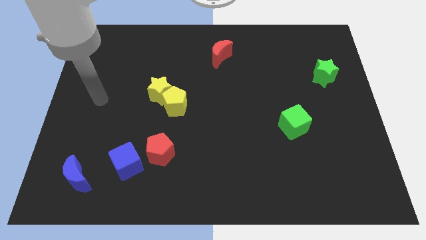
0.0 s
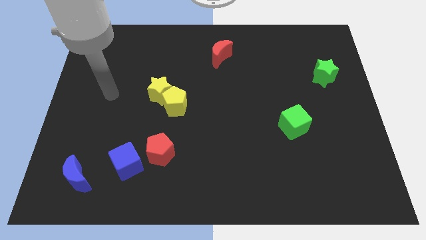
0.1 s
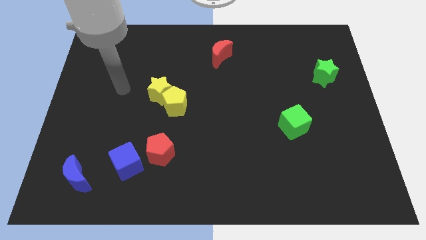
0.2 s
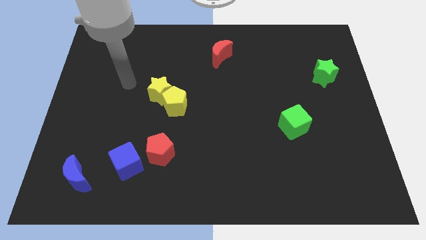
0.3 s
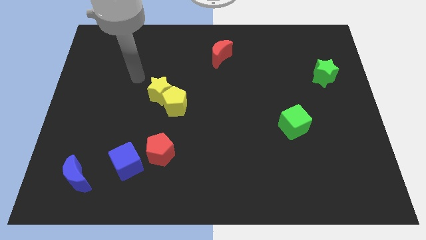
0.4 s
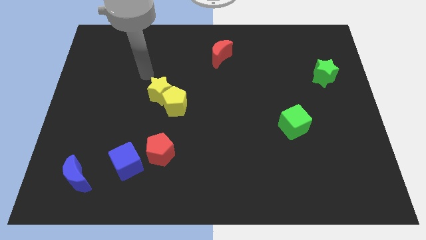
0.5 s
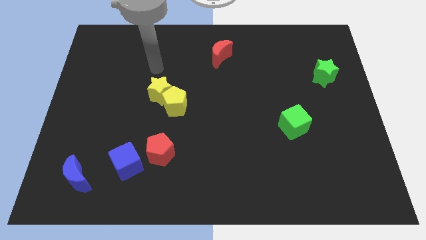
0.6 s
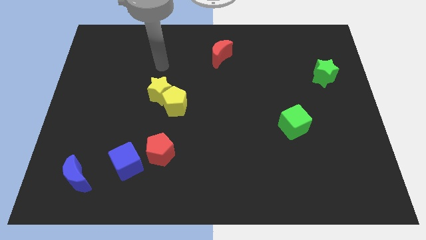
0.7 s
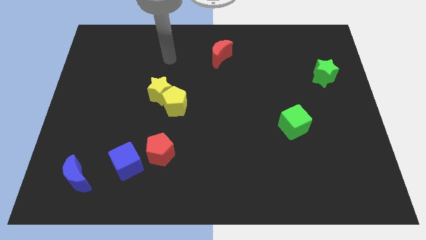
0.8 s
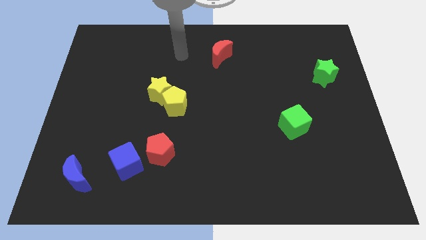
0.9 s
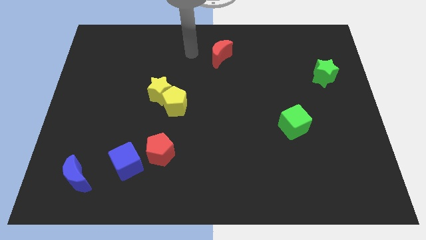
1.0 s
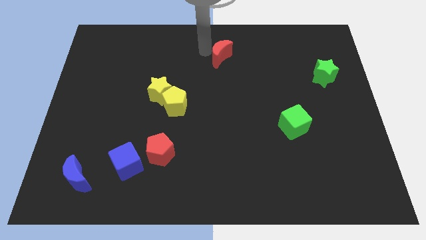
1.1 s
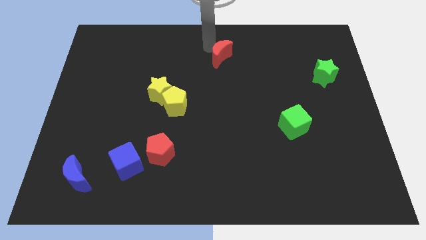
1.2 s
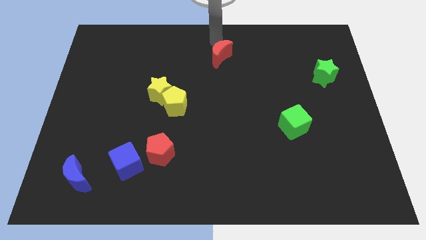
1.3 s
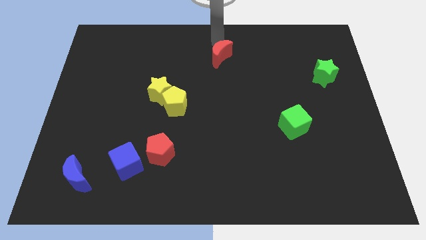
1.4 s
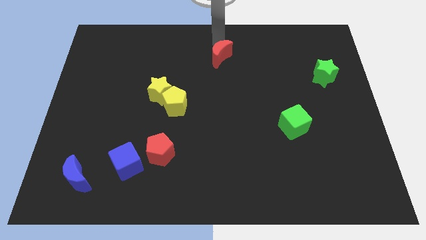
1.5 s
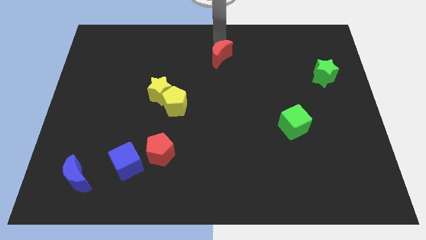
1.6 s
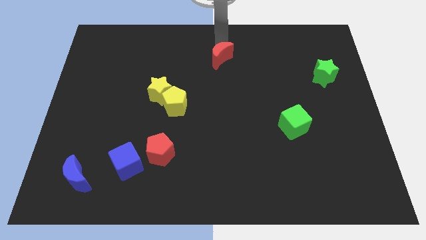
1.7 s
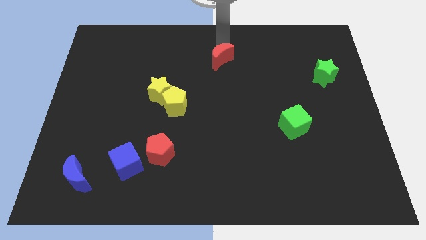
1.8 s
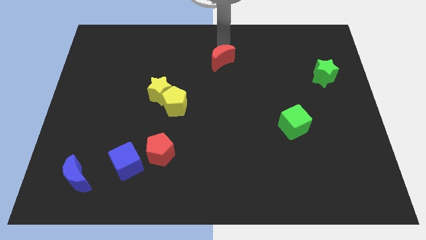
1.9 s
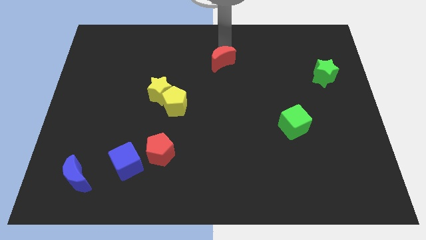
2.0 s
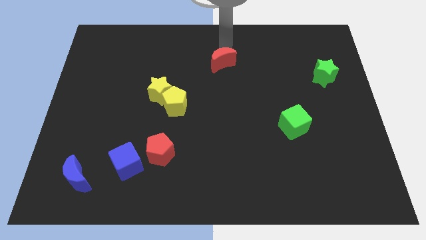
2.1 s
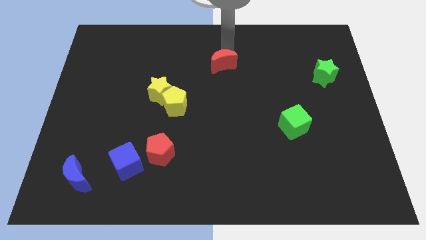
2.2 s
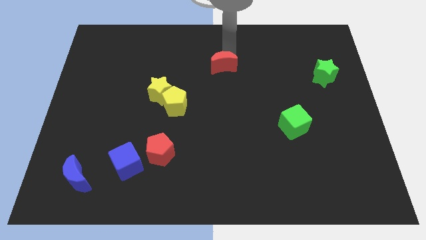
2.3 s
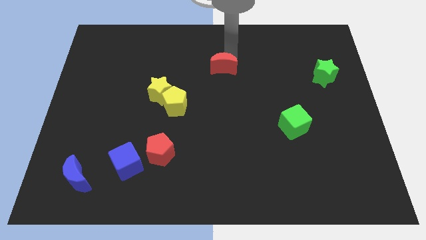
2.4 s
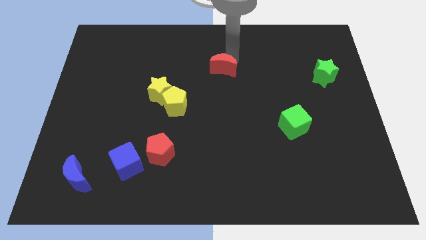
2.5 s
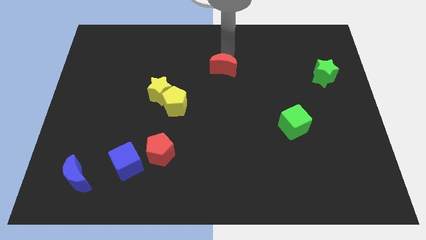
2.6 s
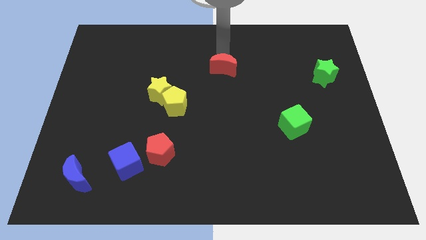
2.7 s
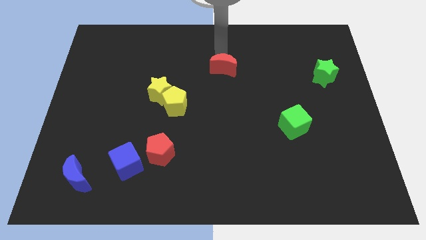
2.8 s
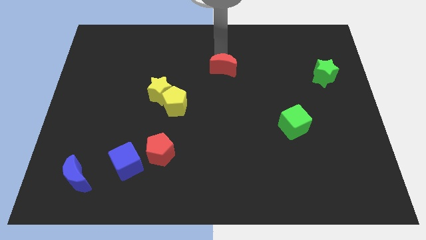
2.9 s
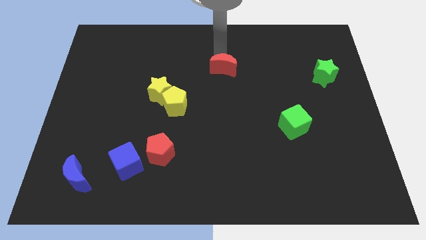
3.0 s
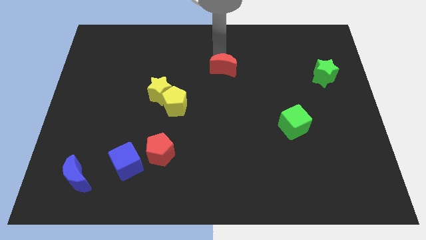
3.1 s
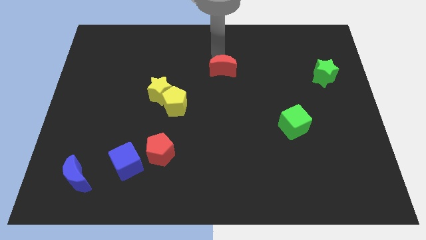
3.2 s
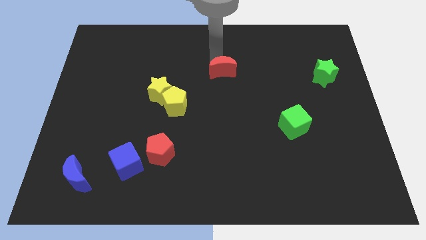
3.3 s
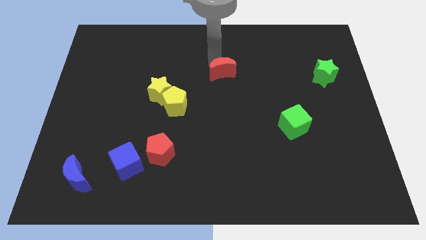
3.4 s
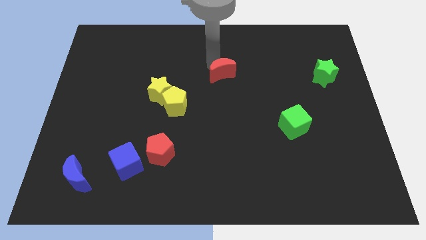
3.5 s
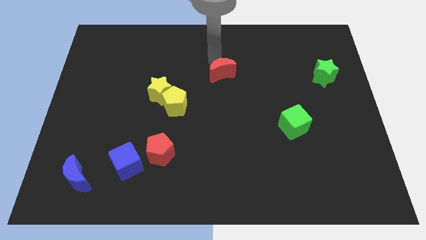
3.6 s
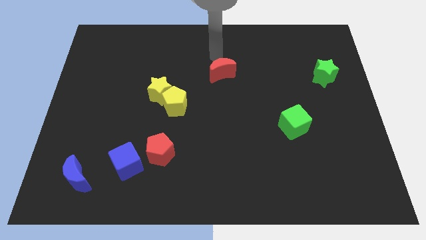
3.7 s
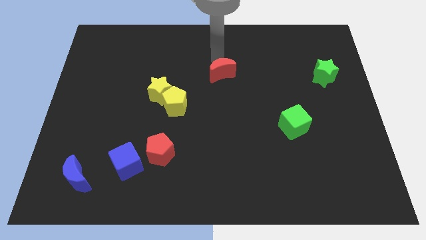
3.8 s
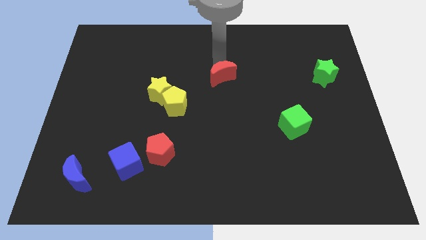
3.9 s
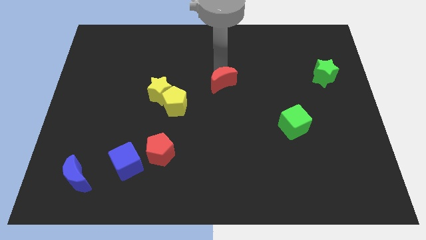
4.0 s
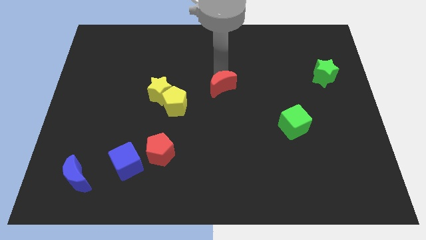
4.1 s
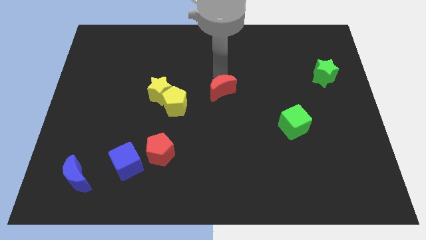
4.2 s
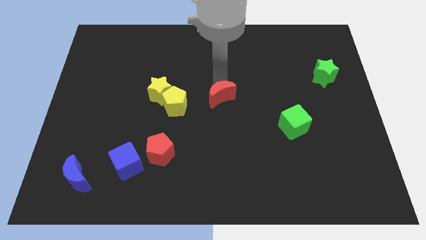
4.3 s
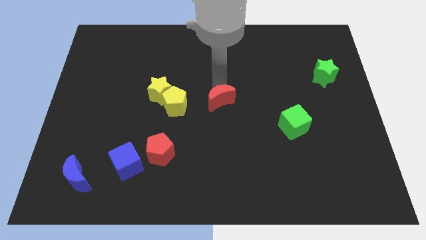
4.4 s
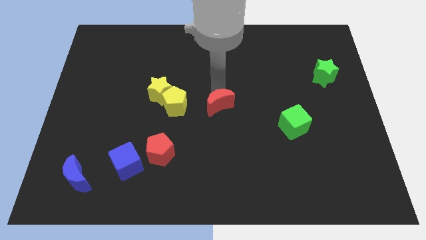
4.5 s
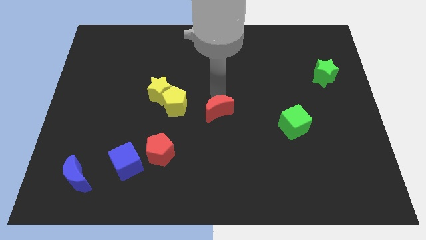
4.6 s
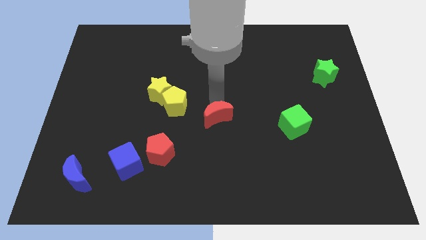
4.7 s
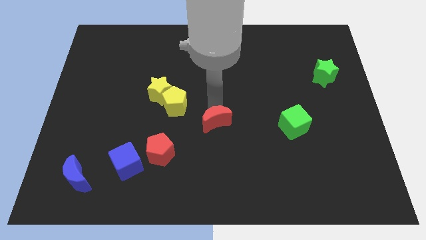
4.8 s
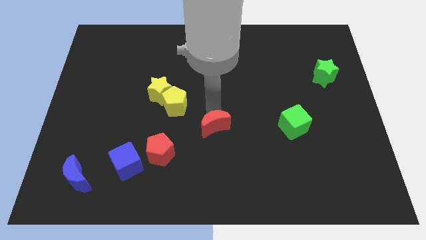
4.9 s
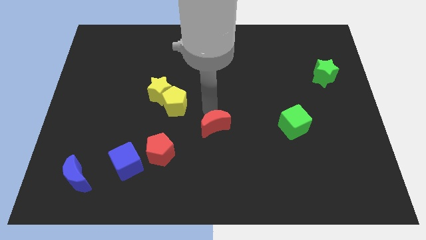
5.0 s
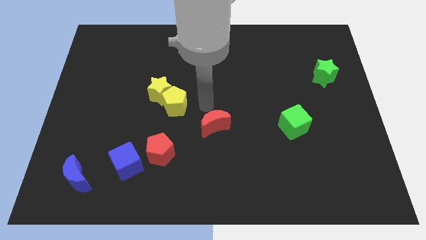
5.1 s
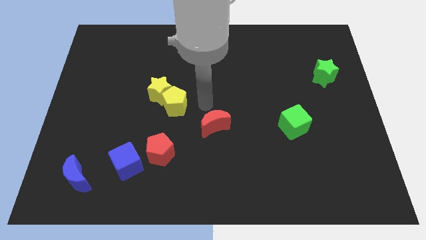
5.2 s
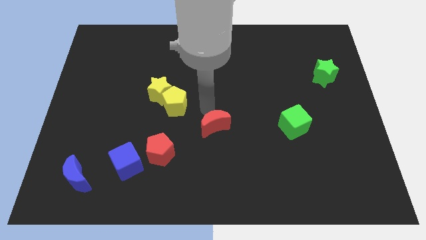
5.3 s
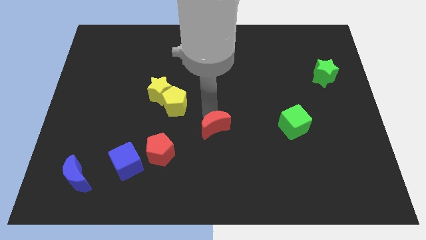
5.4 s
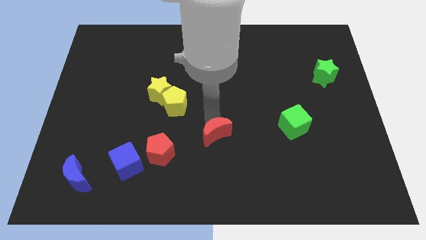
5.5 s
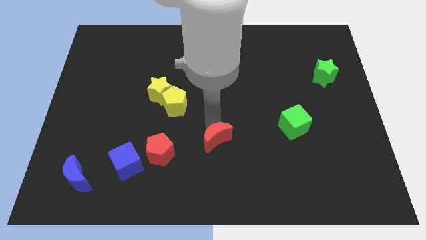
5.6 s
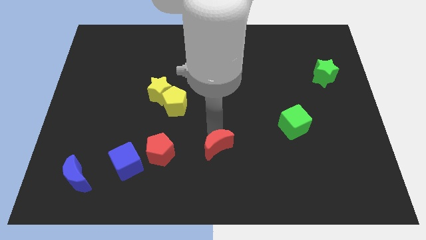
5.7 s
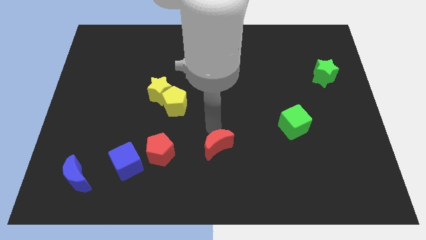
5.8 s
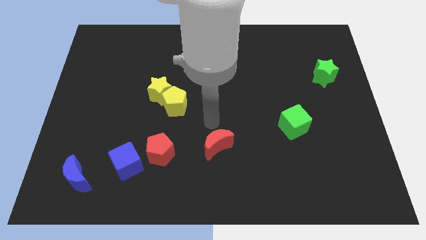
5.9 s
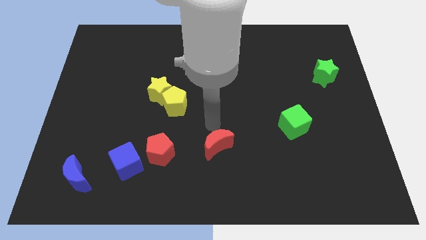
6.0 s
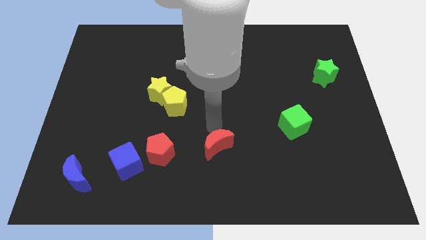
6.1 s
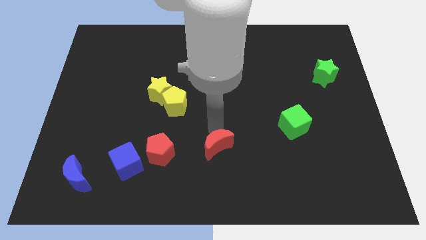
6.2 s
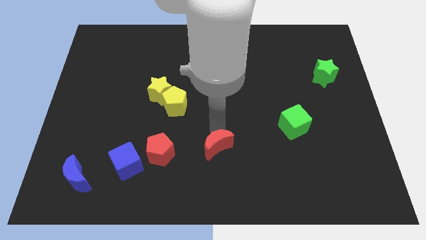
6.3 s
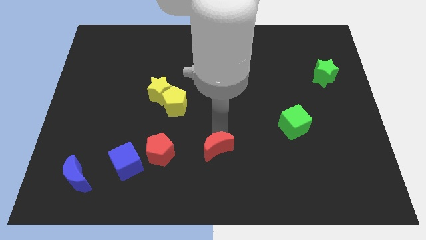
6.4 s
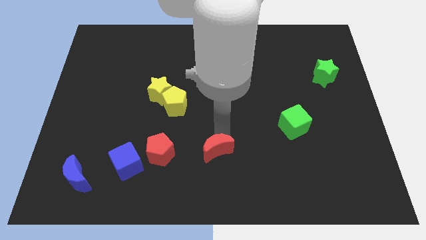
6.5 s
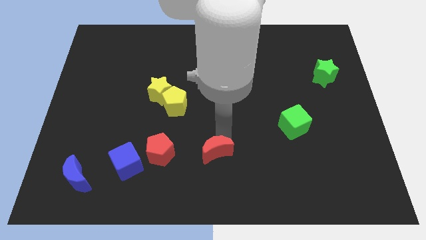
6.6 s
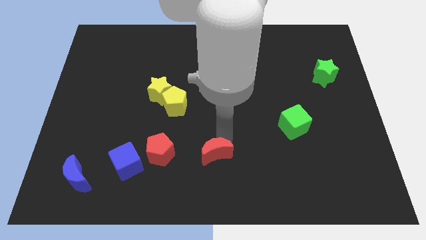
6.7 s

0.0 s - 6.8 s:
slide the red moon to the bottom
